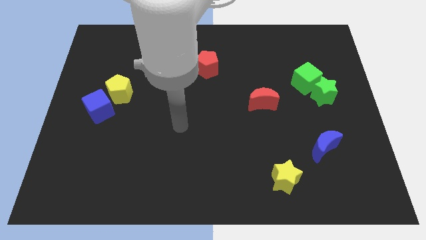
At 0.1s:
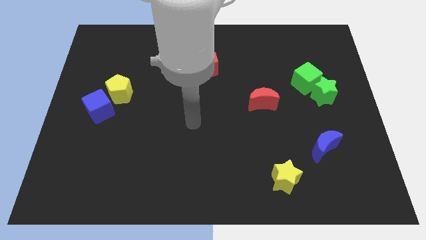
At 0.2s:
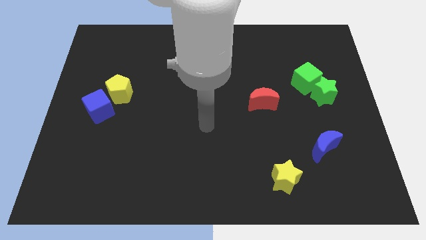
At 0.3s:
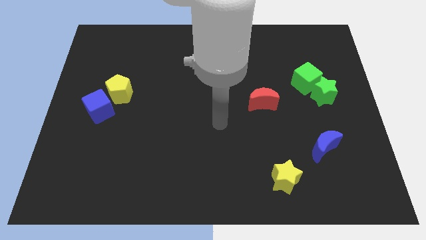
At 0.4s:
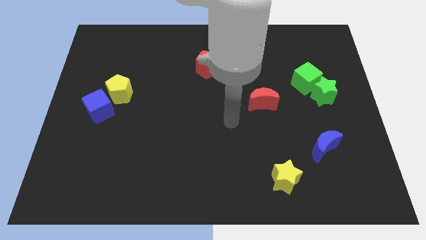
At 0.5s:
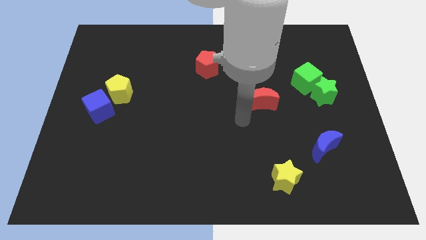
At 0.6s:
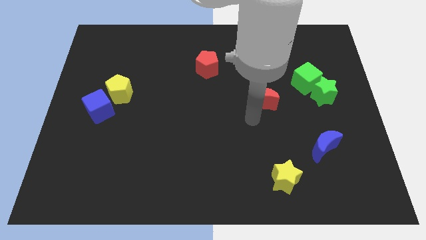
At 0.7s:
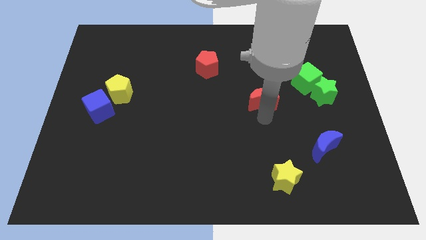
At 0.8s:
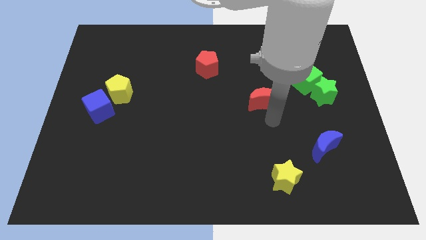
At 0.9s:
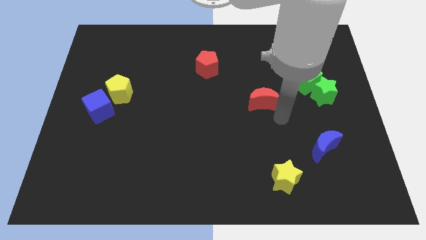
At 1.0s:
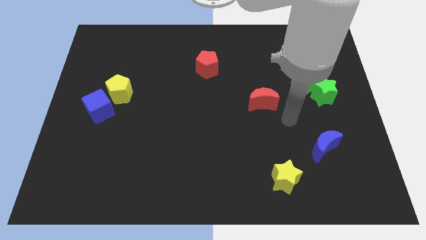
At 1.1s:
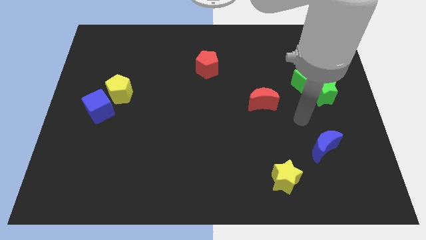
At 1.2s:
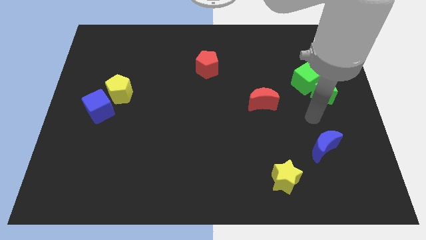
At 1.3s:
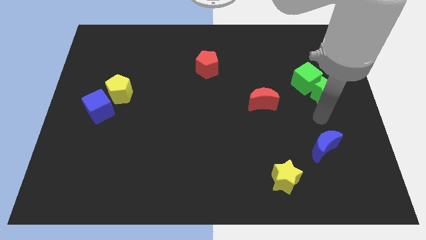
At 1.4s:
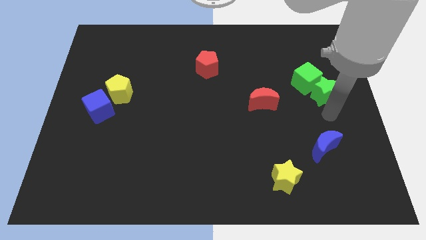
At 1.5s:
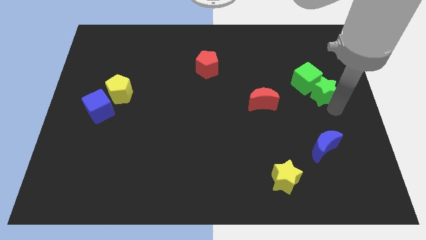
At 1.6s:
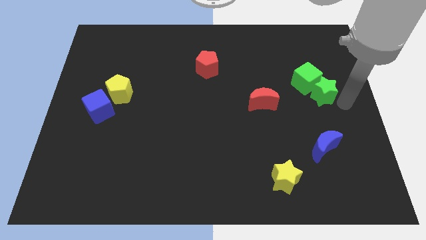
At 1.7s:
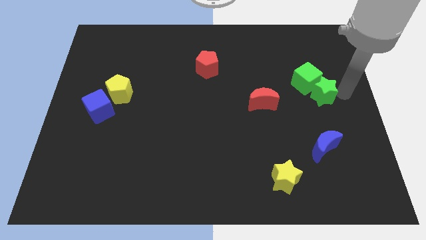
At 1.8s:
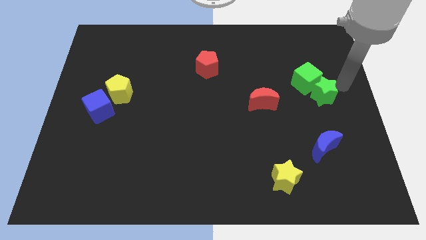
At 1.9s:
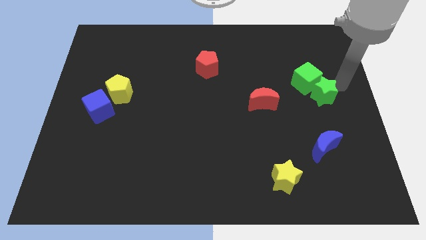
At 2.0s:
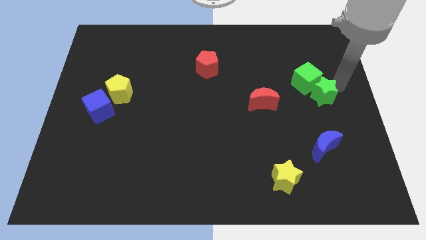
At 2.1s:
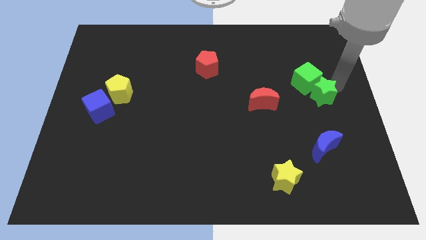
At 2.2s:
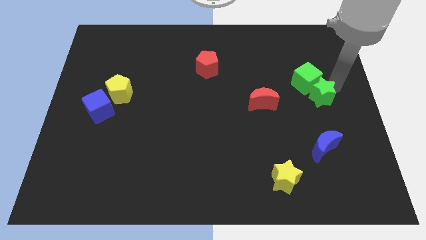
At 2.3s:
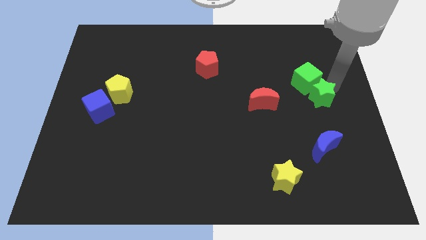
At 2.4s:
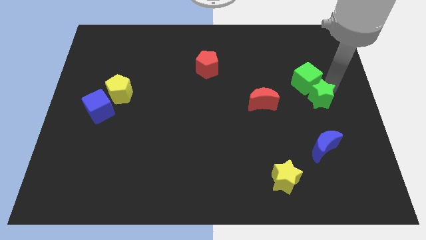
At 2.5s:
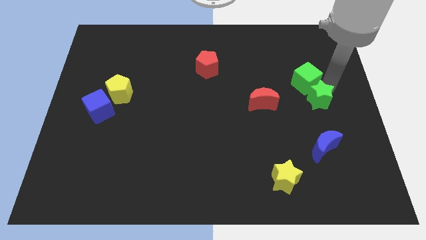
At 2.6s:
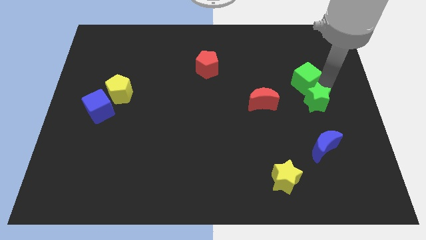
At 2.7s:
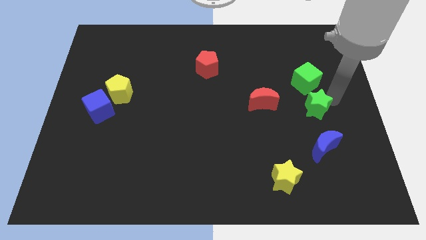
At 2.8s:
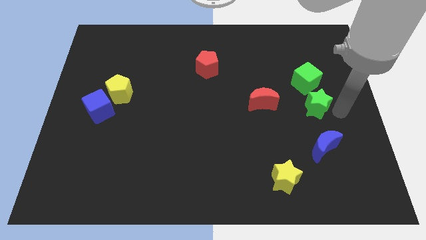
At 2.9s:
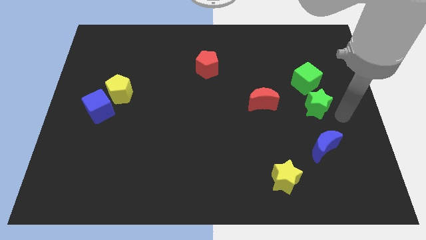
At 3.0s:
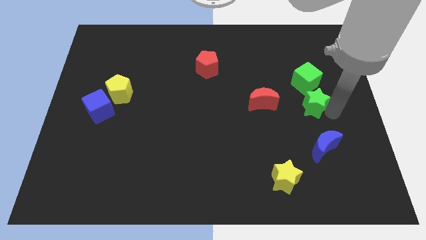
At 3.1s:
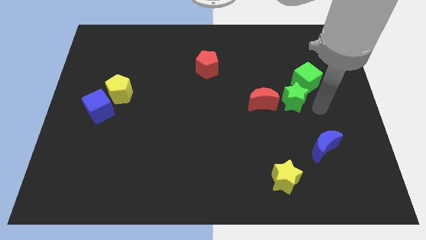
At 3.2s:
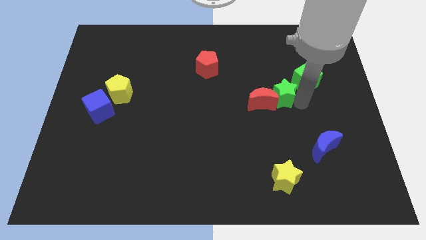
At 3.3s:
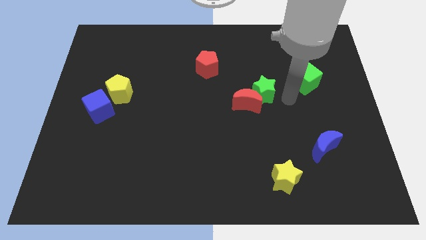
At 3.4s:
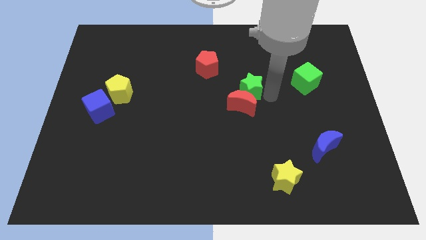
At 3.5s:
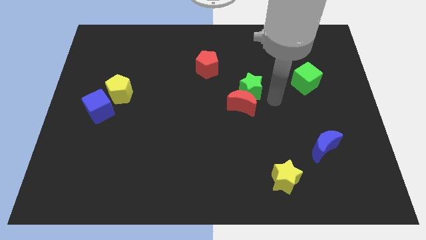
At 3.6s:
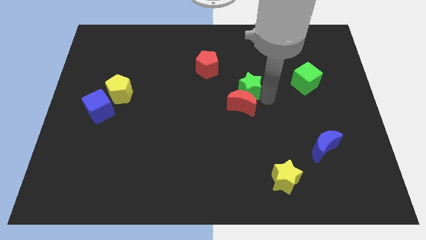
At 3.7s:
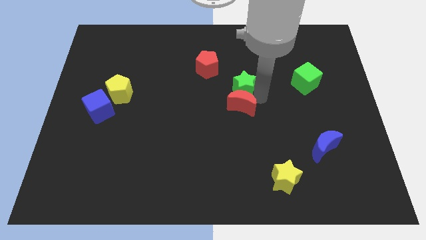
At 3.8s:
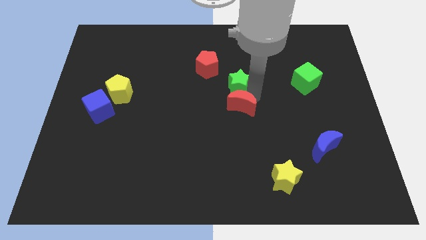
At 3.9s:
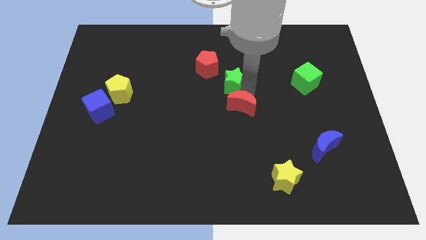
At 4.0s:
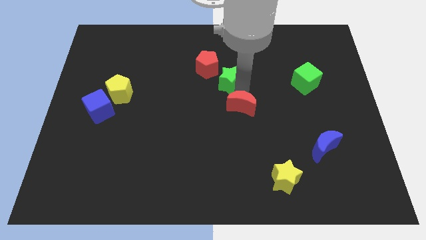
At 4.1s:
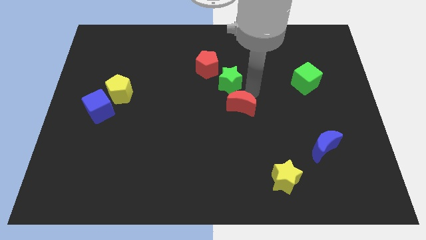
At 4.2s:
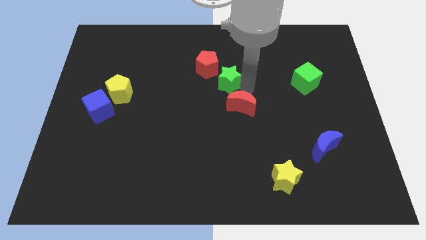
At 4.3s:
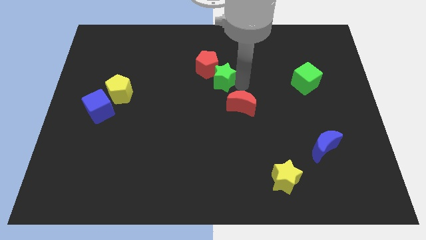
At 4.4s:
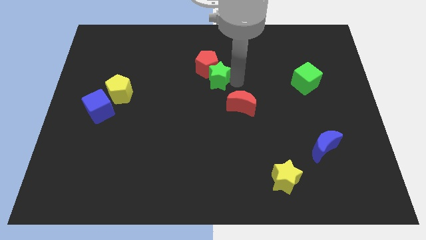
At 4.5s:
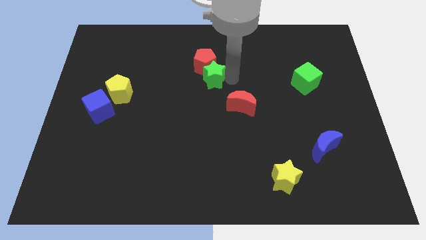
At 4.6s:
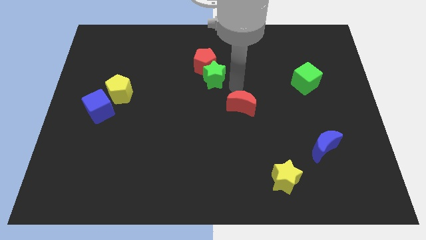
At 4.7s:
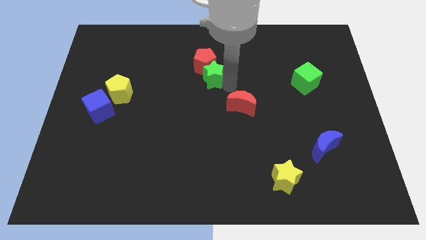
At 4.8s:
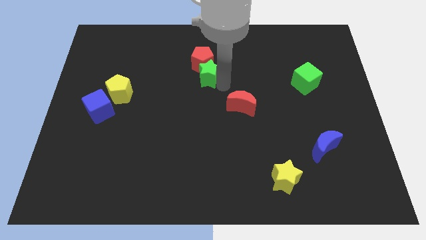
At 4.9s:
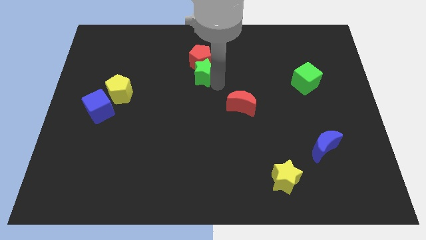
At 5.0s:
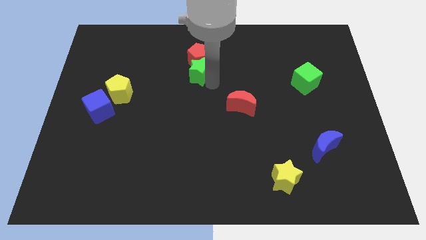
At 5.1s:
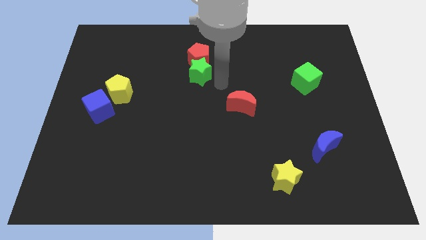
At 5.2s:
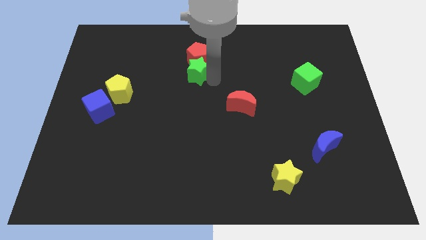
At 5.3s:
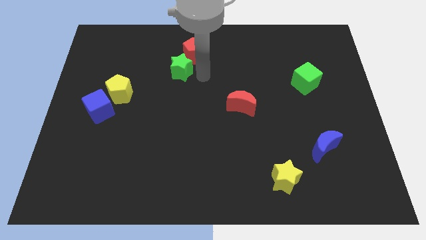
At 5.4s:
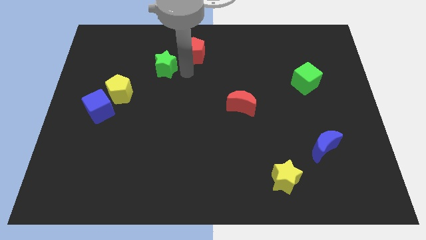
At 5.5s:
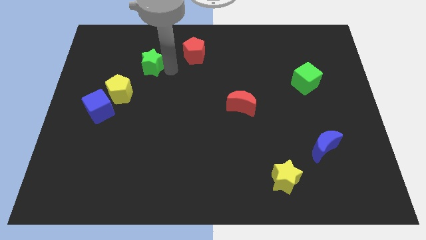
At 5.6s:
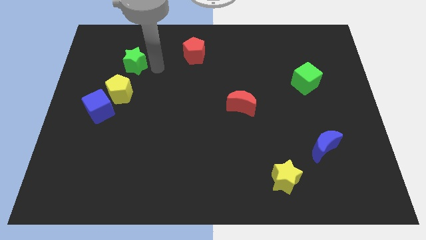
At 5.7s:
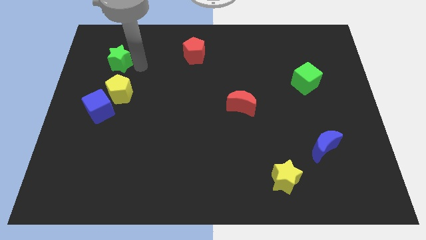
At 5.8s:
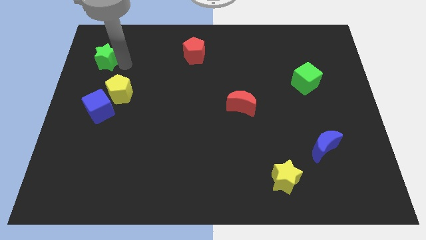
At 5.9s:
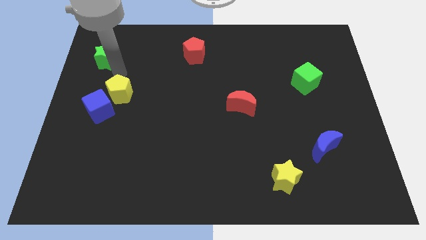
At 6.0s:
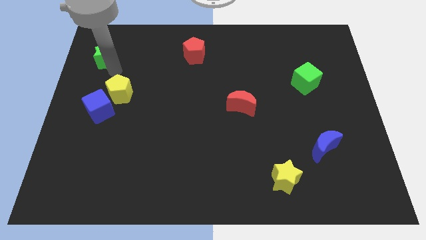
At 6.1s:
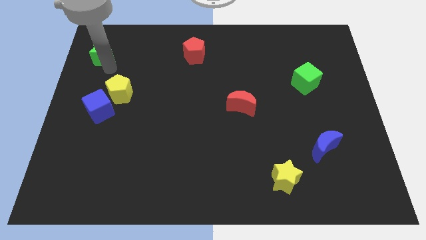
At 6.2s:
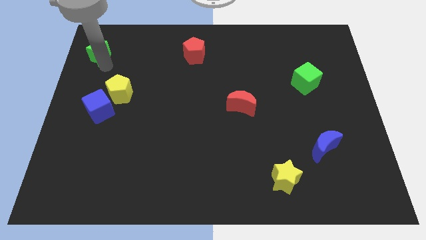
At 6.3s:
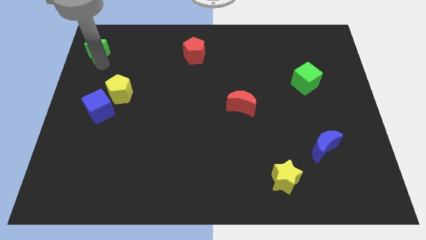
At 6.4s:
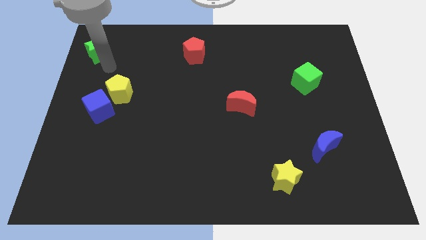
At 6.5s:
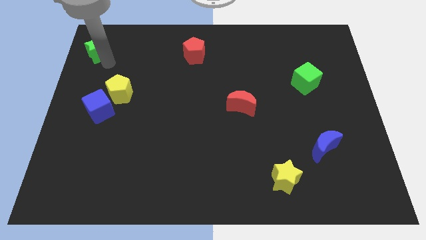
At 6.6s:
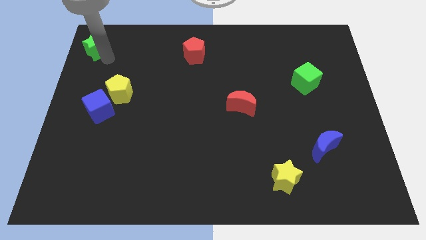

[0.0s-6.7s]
move the green star to the top left of the board
